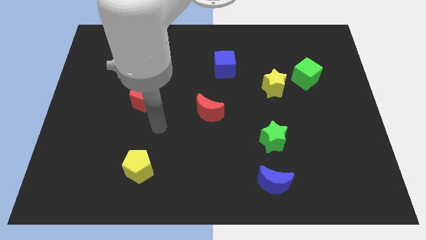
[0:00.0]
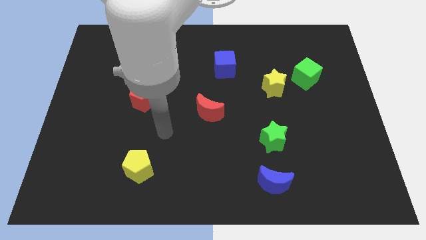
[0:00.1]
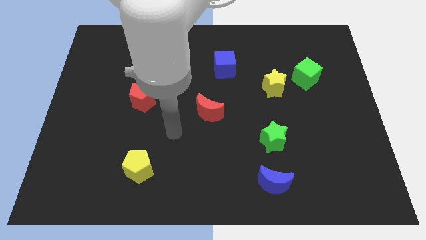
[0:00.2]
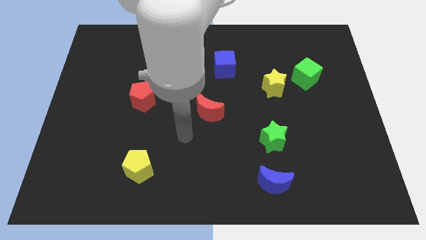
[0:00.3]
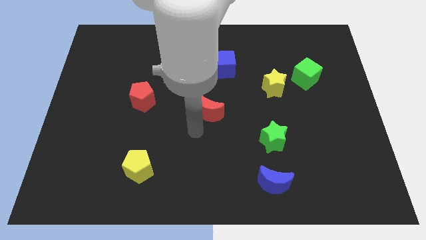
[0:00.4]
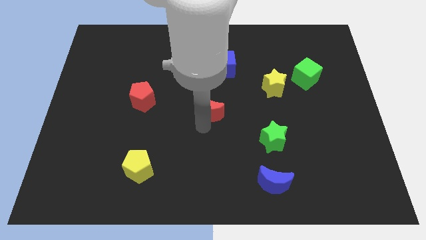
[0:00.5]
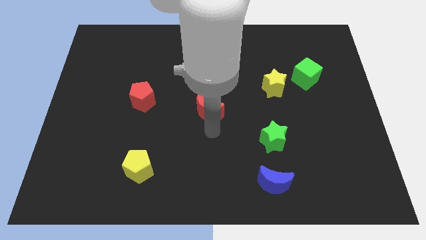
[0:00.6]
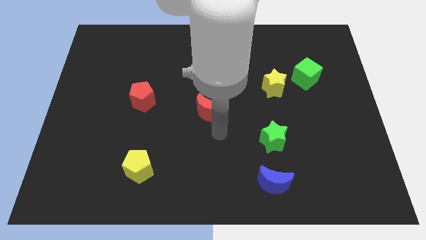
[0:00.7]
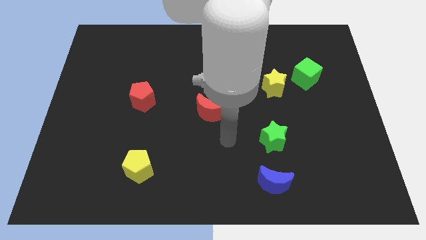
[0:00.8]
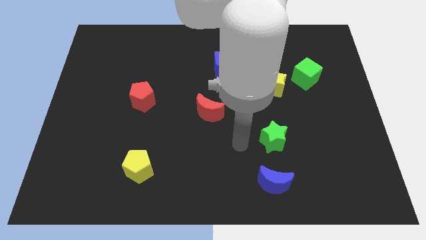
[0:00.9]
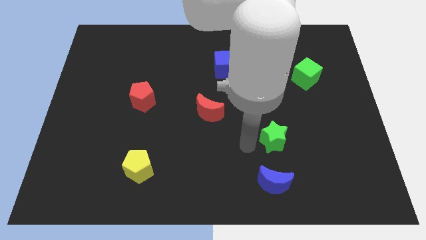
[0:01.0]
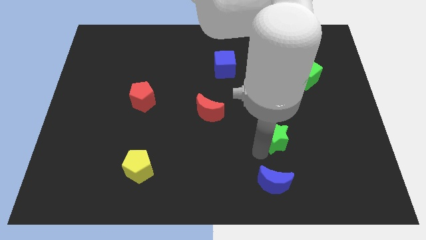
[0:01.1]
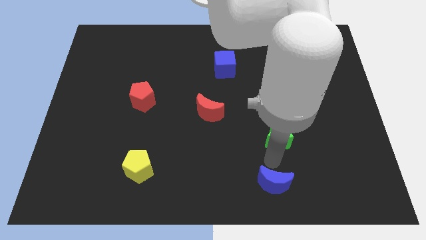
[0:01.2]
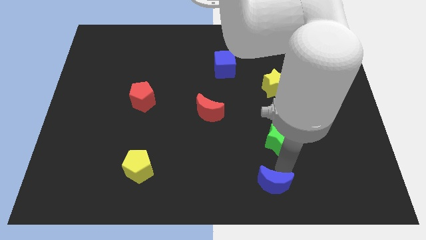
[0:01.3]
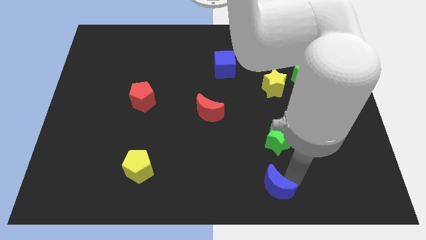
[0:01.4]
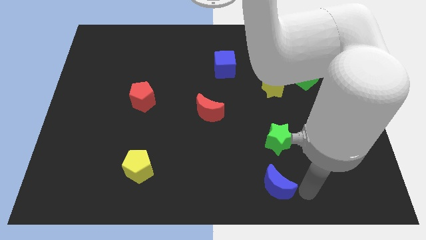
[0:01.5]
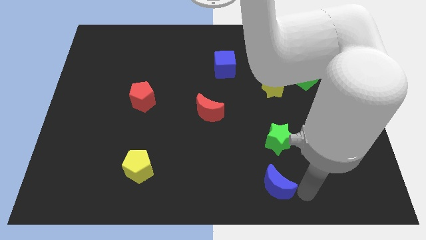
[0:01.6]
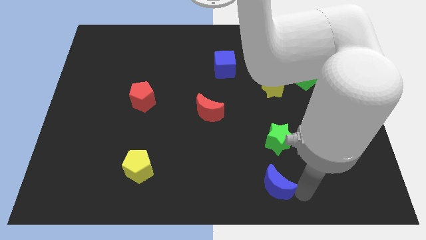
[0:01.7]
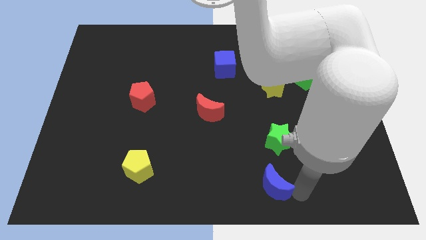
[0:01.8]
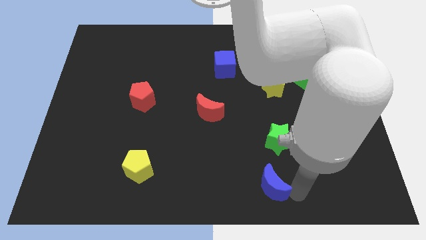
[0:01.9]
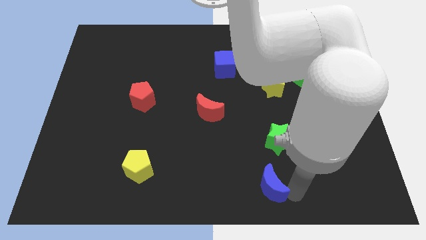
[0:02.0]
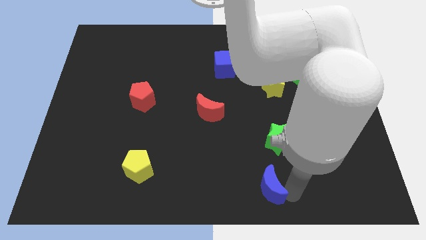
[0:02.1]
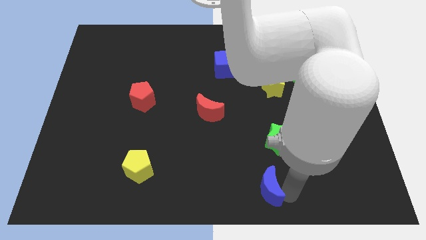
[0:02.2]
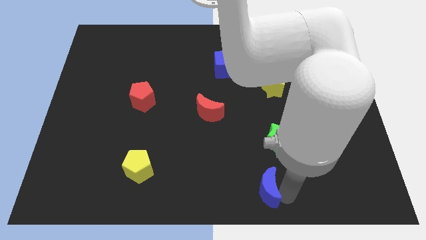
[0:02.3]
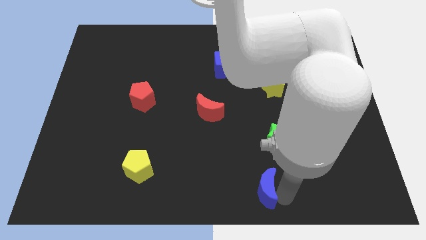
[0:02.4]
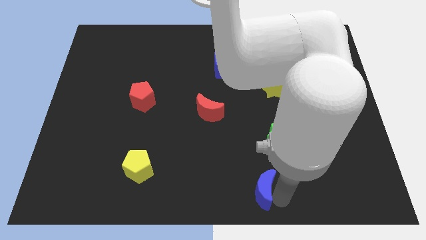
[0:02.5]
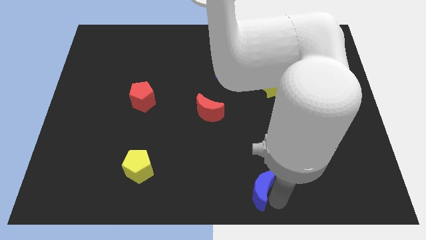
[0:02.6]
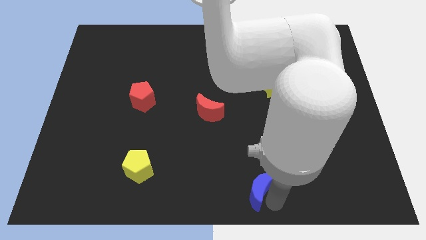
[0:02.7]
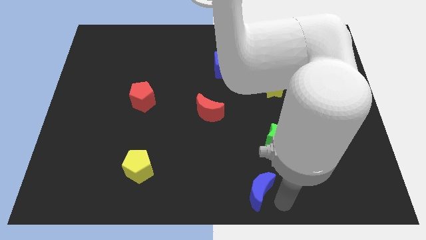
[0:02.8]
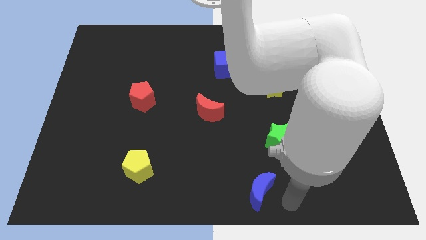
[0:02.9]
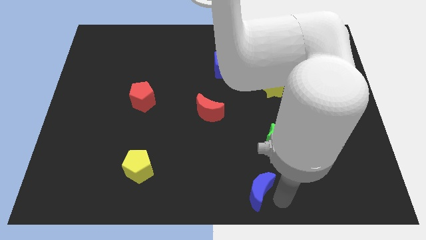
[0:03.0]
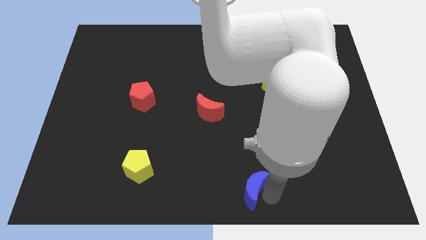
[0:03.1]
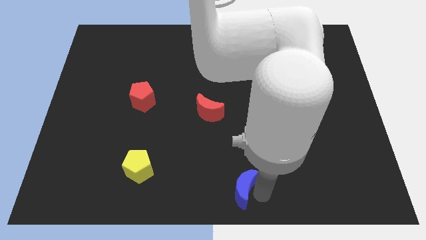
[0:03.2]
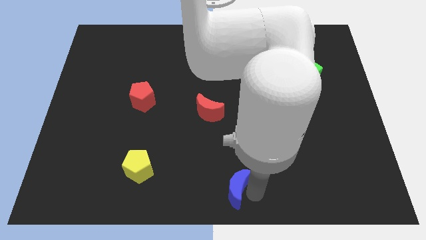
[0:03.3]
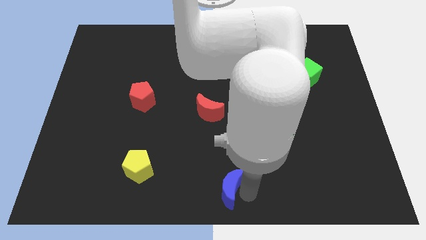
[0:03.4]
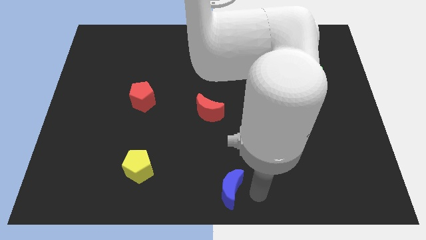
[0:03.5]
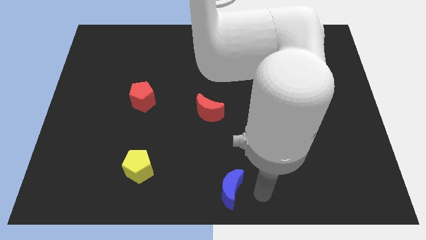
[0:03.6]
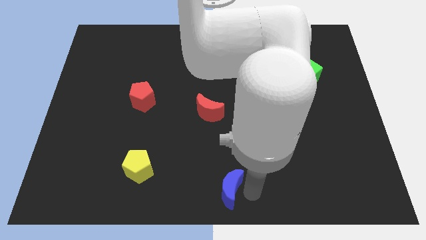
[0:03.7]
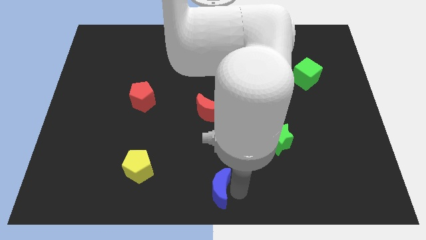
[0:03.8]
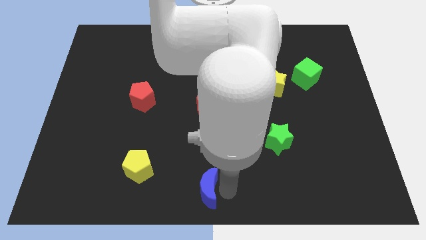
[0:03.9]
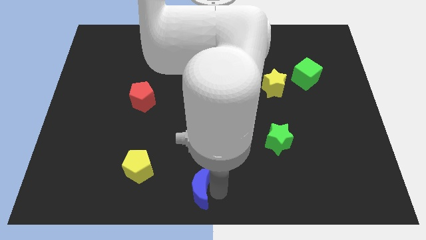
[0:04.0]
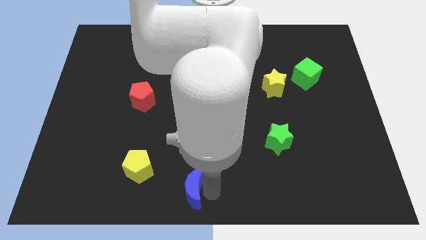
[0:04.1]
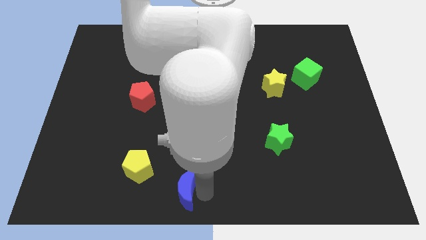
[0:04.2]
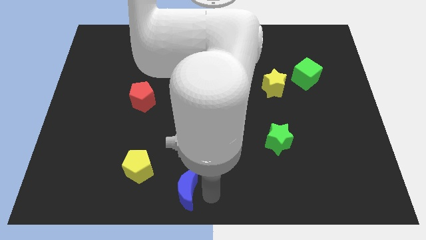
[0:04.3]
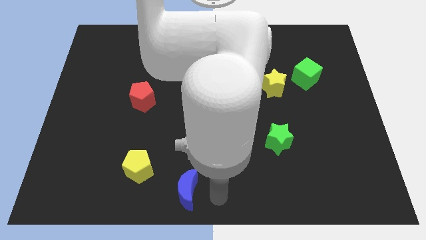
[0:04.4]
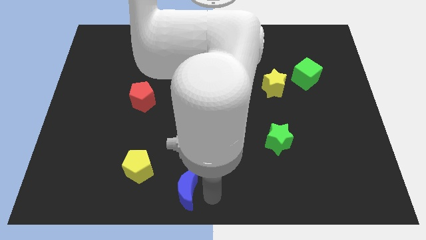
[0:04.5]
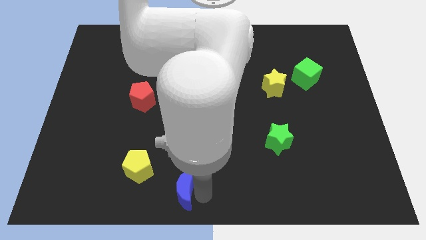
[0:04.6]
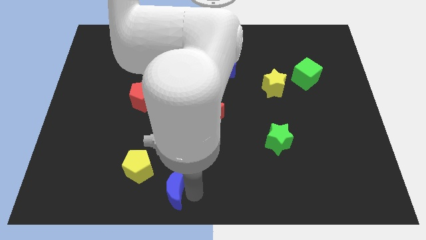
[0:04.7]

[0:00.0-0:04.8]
slide the blue moon left

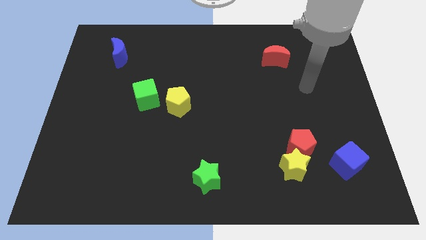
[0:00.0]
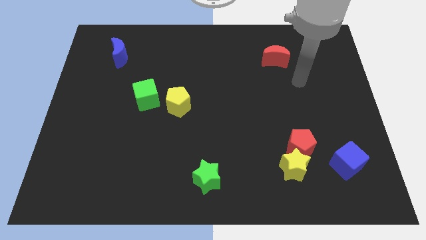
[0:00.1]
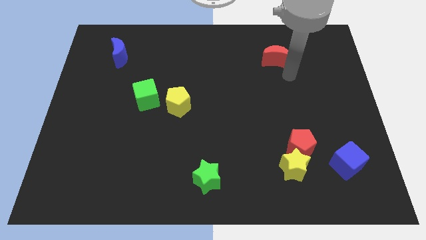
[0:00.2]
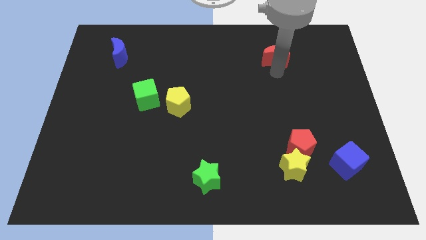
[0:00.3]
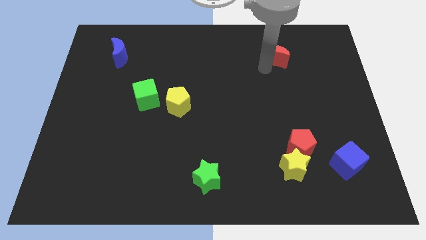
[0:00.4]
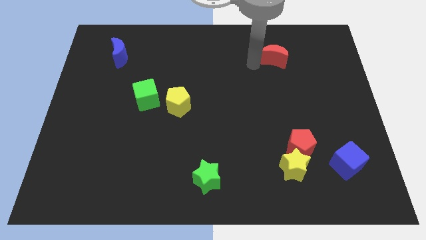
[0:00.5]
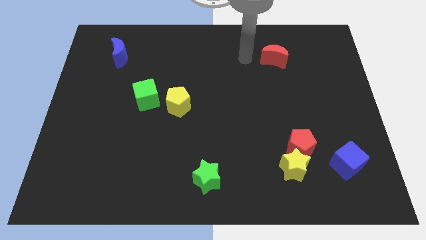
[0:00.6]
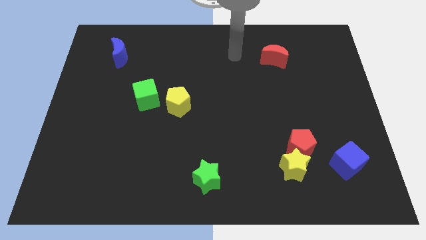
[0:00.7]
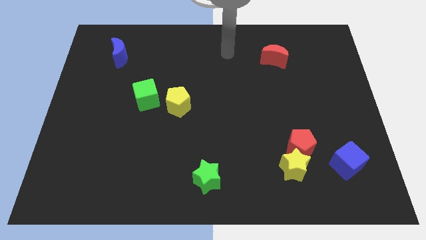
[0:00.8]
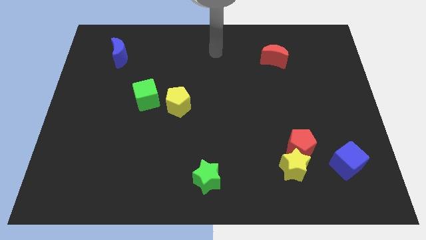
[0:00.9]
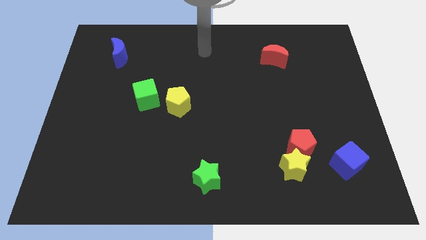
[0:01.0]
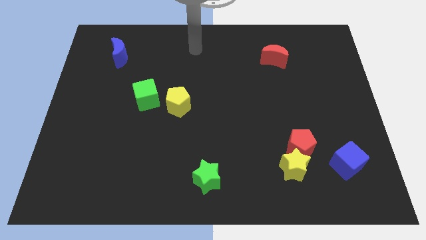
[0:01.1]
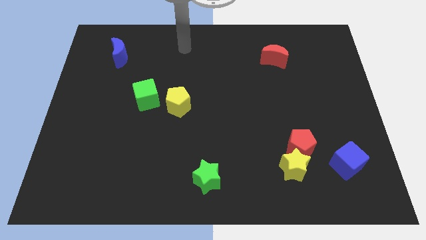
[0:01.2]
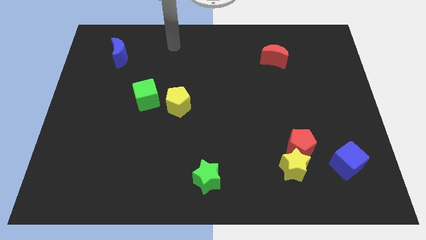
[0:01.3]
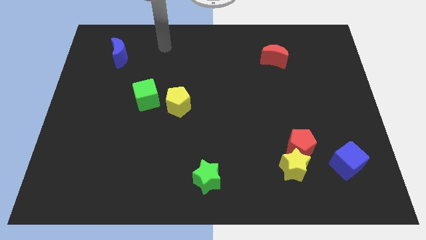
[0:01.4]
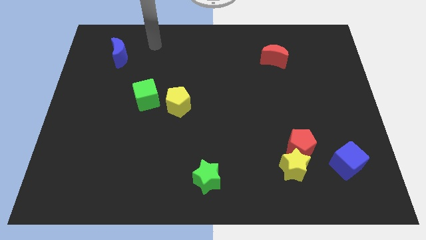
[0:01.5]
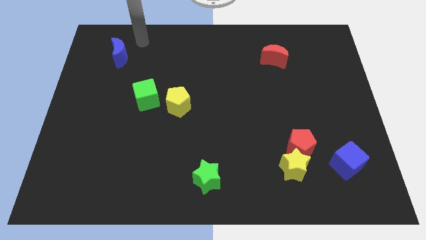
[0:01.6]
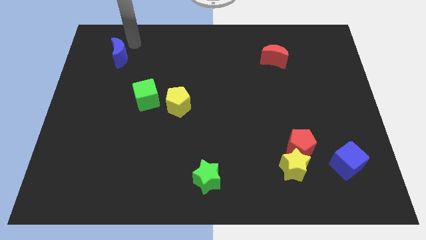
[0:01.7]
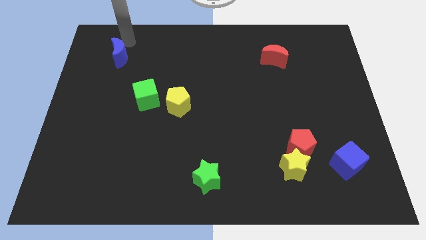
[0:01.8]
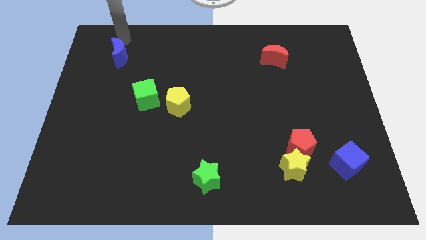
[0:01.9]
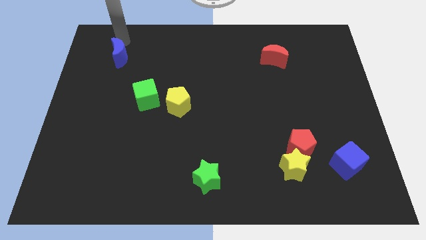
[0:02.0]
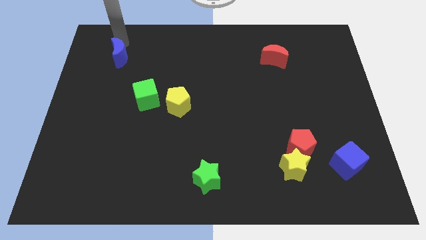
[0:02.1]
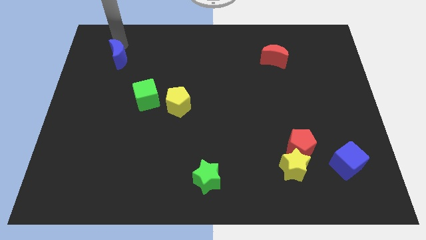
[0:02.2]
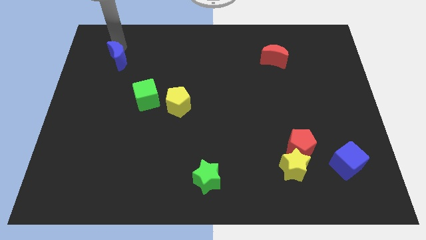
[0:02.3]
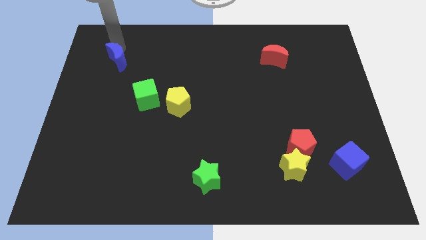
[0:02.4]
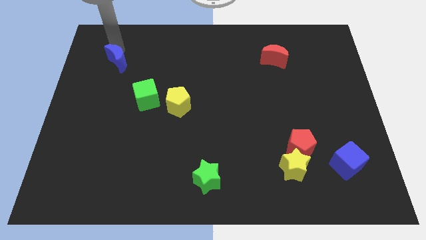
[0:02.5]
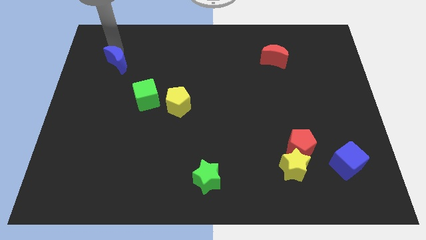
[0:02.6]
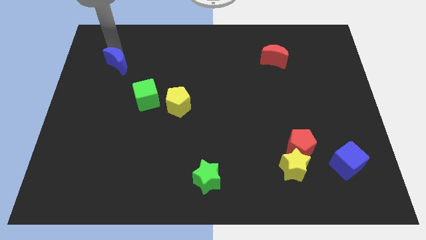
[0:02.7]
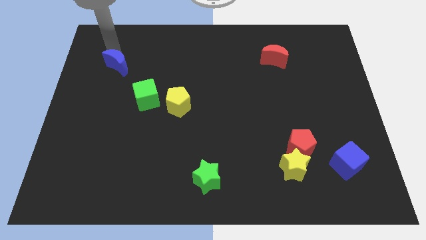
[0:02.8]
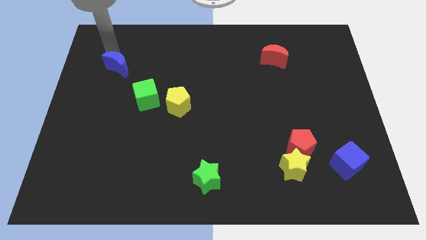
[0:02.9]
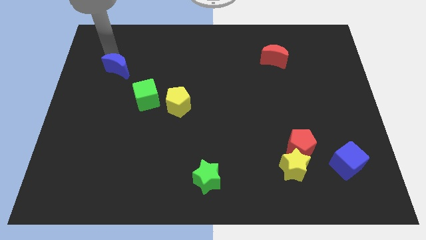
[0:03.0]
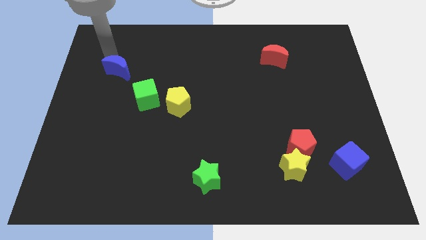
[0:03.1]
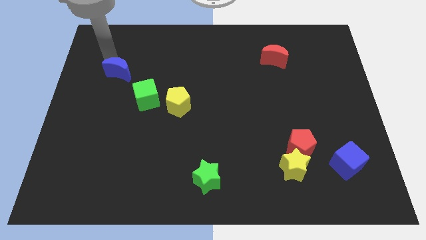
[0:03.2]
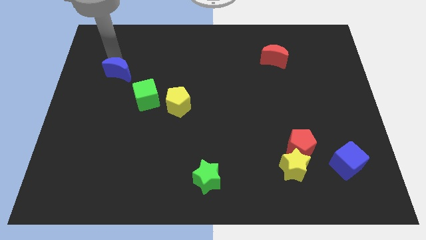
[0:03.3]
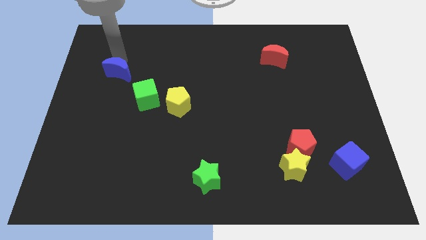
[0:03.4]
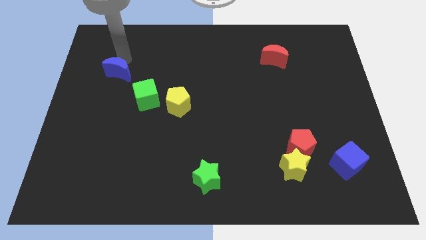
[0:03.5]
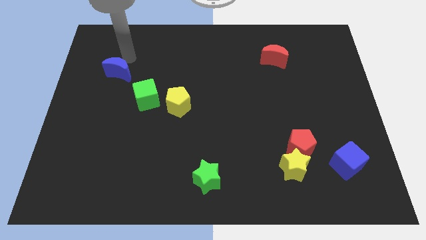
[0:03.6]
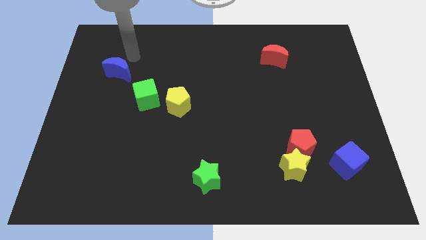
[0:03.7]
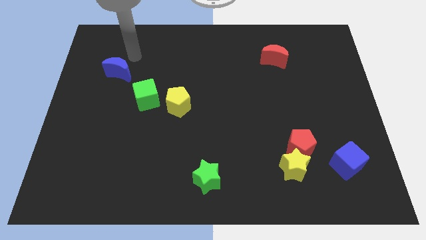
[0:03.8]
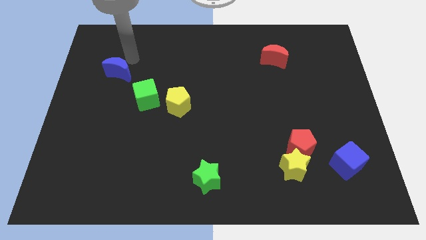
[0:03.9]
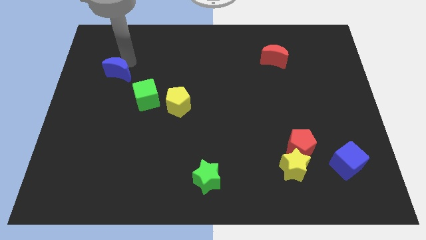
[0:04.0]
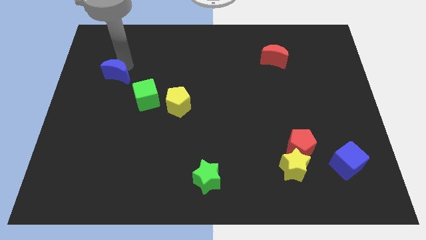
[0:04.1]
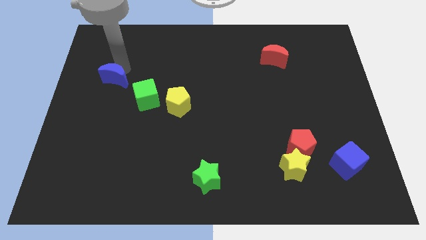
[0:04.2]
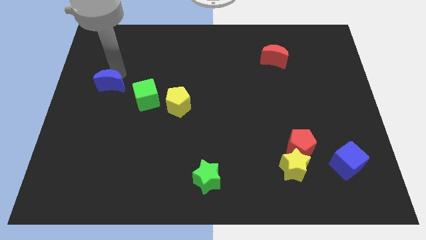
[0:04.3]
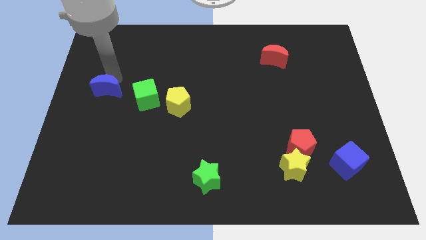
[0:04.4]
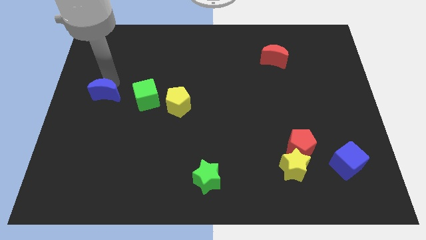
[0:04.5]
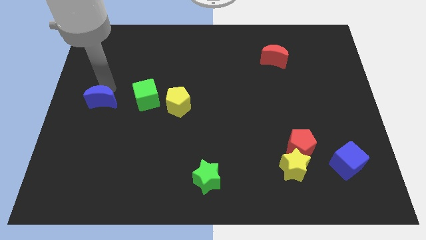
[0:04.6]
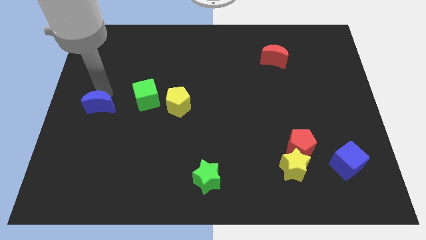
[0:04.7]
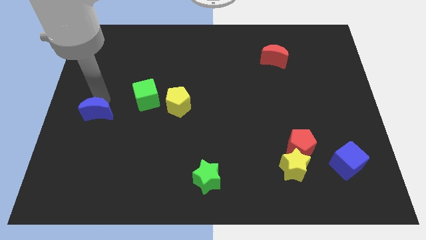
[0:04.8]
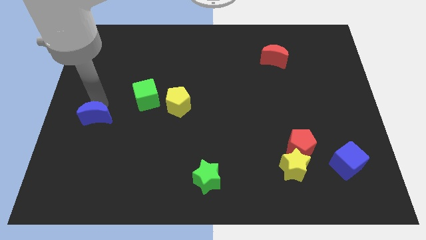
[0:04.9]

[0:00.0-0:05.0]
slide the blue moon downwards
